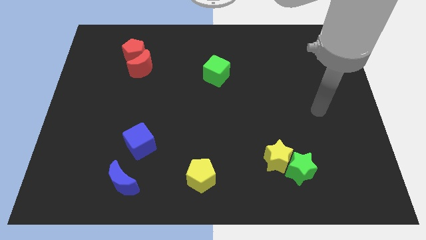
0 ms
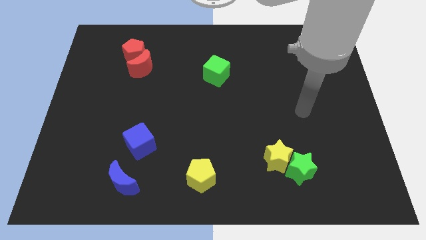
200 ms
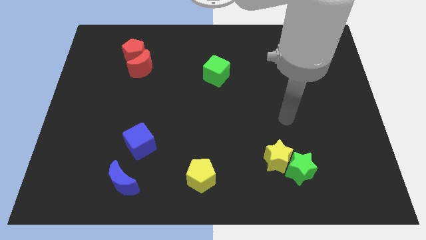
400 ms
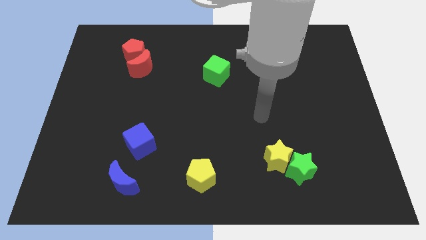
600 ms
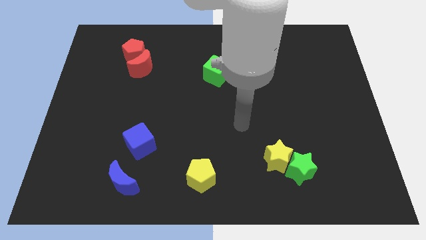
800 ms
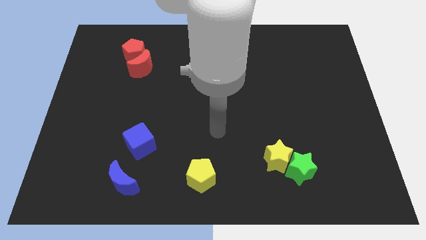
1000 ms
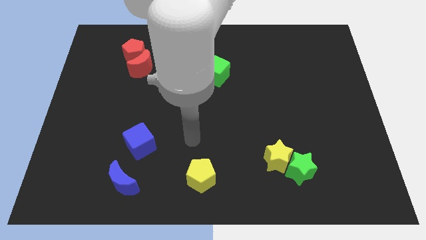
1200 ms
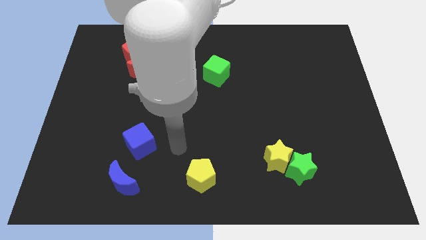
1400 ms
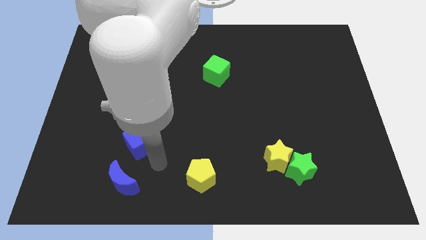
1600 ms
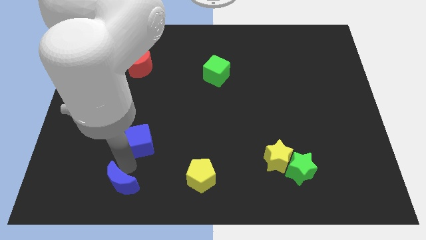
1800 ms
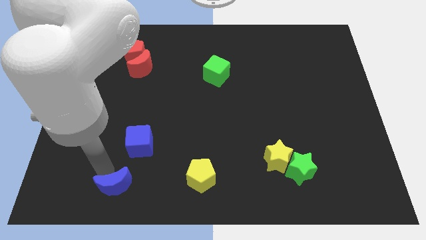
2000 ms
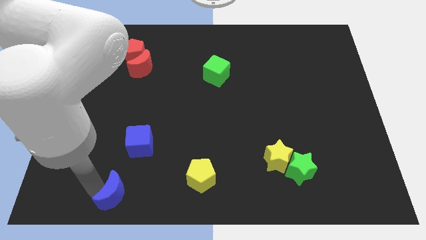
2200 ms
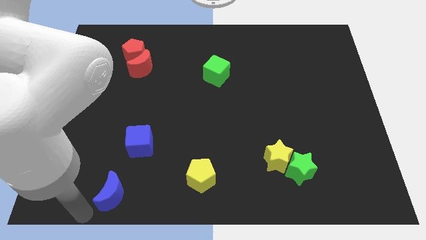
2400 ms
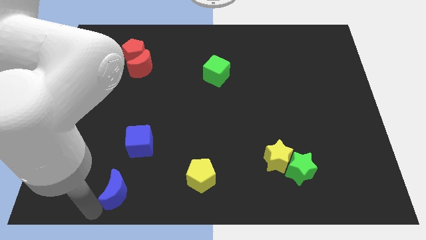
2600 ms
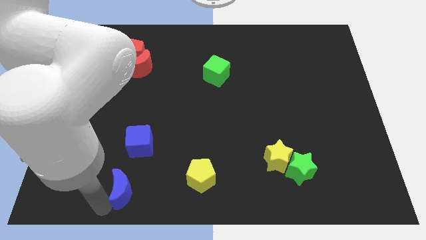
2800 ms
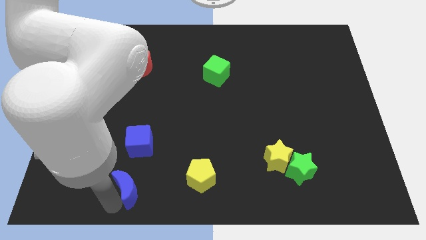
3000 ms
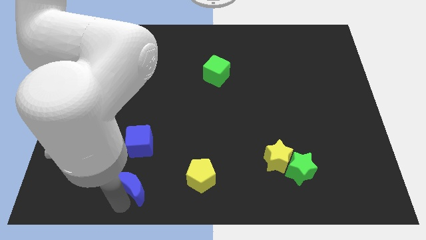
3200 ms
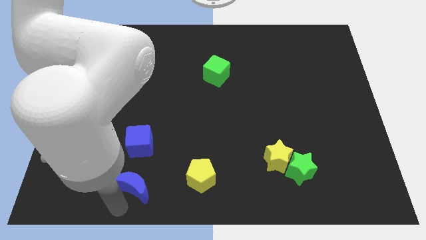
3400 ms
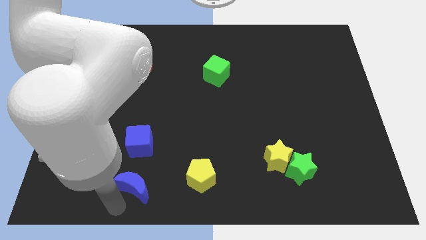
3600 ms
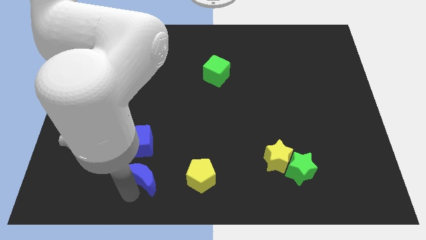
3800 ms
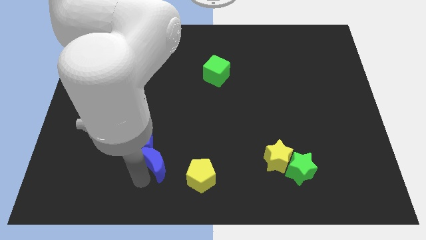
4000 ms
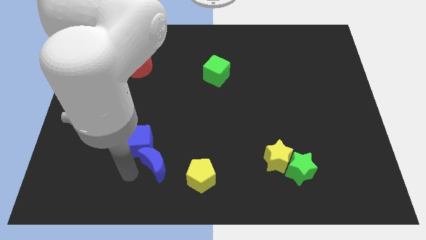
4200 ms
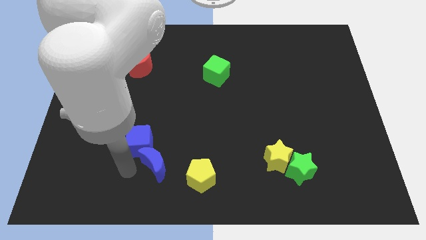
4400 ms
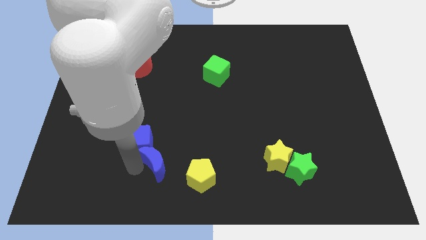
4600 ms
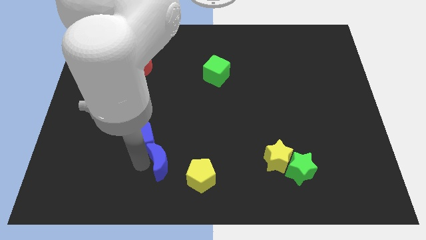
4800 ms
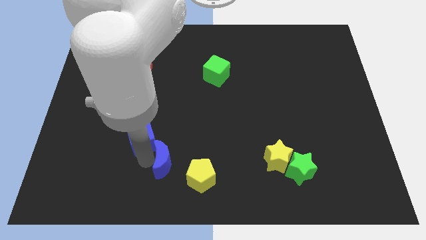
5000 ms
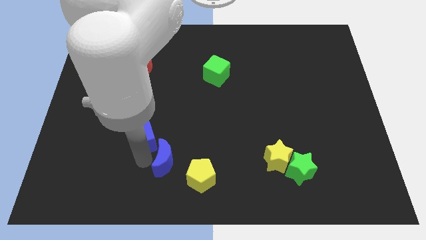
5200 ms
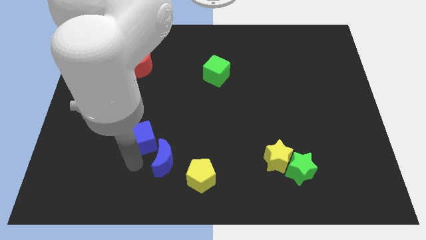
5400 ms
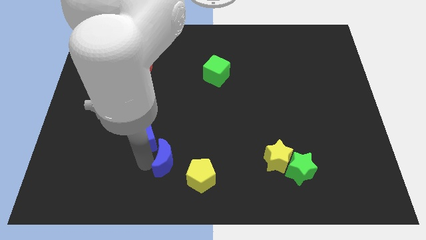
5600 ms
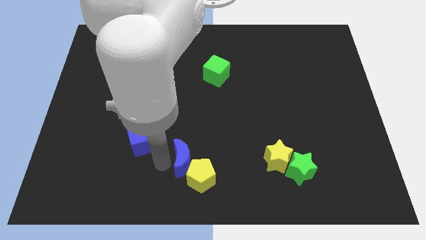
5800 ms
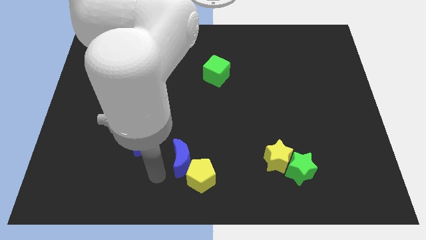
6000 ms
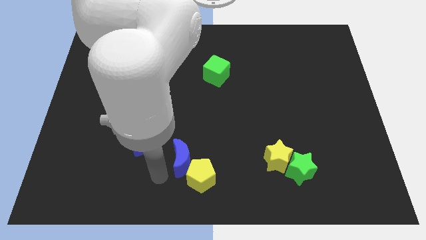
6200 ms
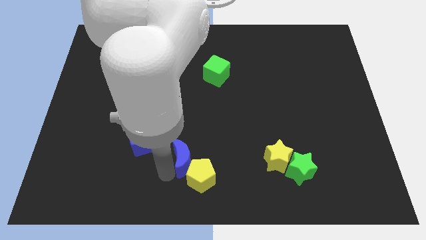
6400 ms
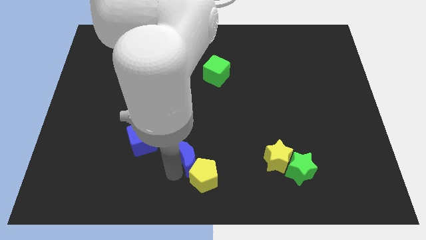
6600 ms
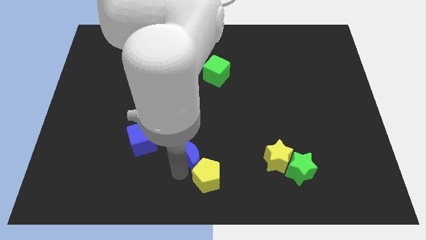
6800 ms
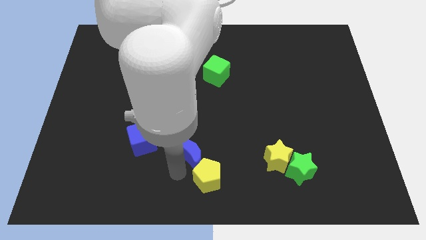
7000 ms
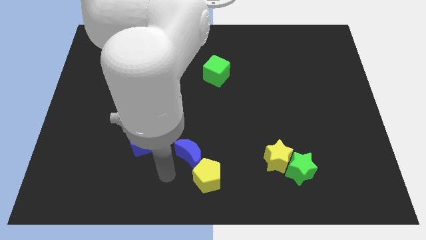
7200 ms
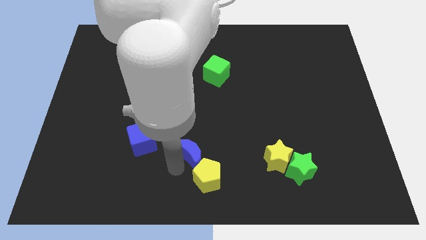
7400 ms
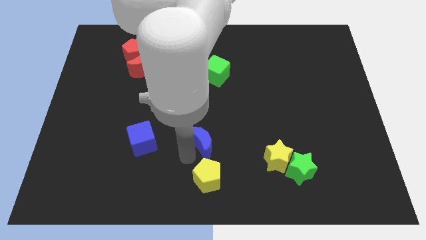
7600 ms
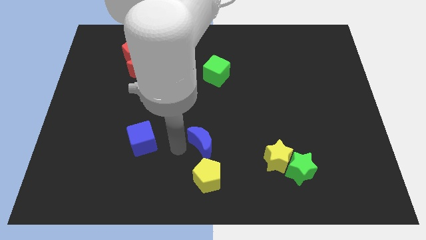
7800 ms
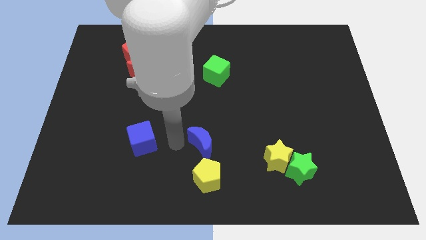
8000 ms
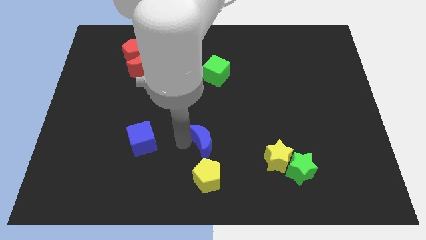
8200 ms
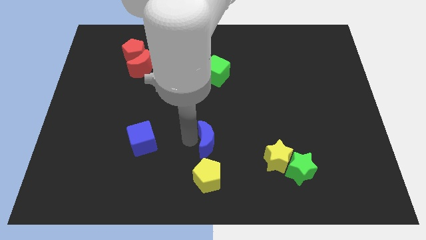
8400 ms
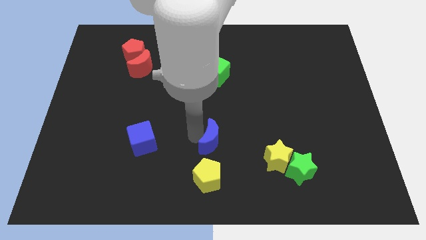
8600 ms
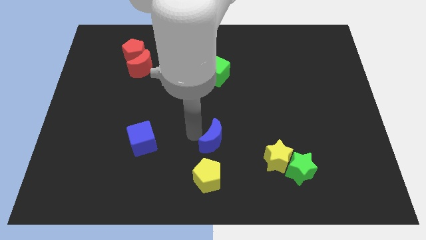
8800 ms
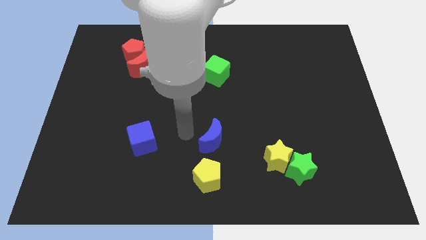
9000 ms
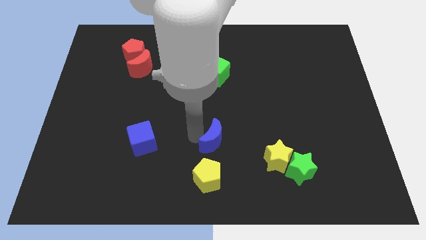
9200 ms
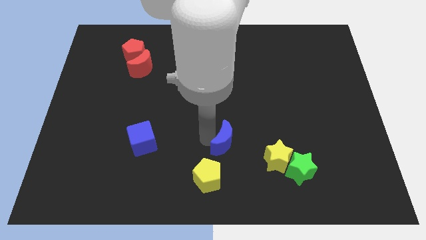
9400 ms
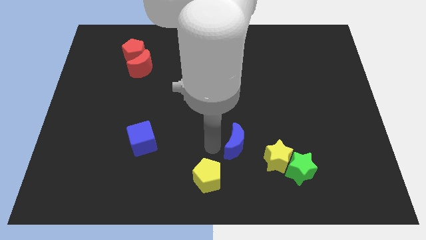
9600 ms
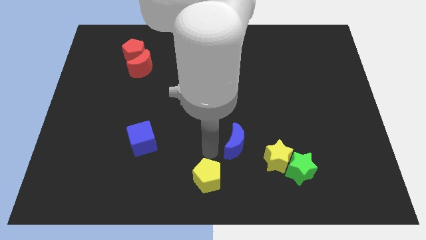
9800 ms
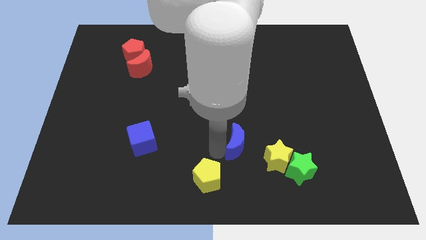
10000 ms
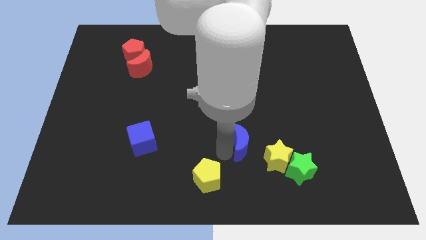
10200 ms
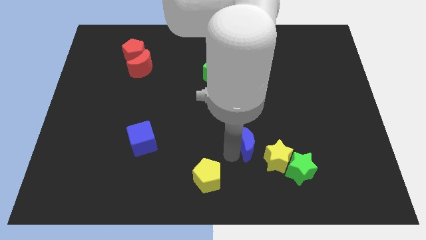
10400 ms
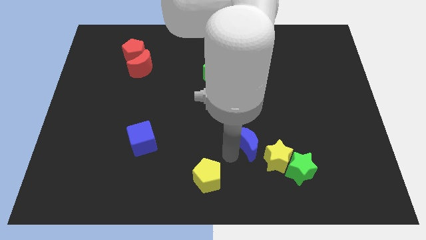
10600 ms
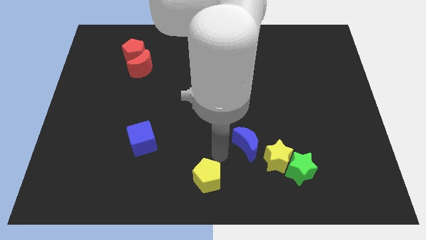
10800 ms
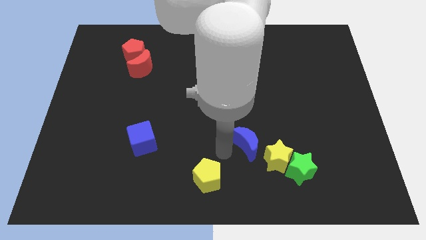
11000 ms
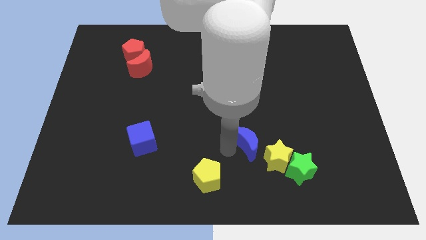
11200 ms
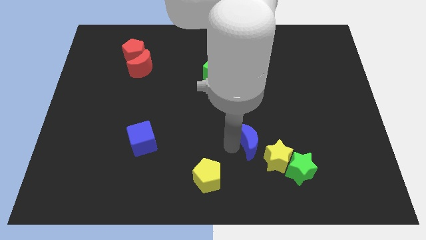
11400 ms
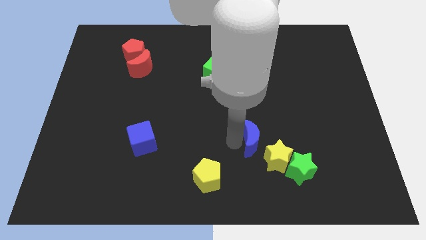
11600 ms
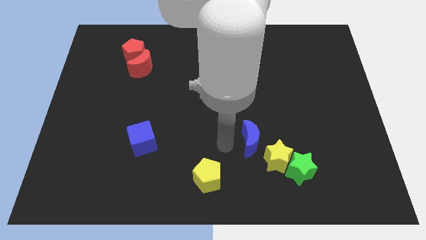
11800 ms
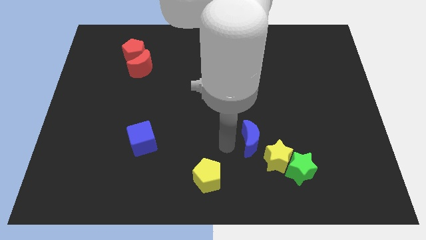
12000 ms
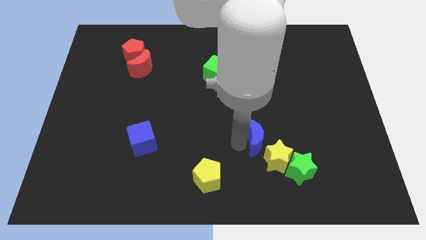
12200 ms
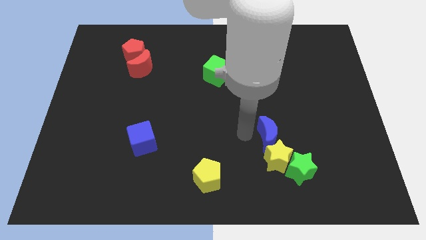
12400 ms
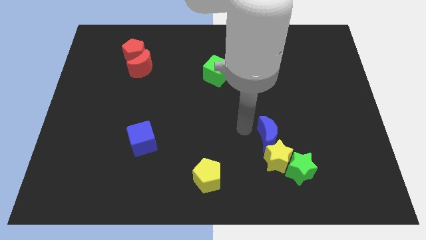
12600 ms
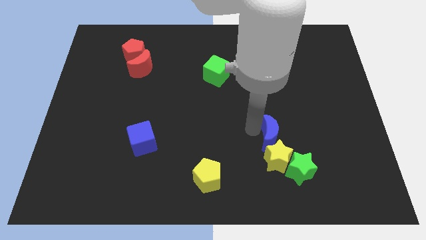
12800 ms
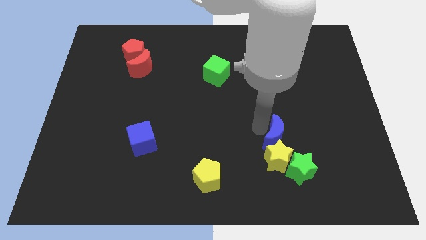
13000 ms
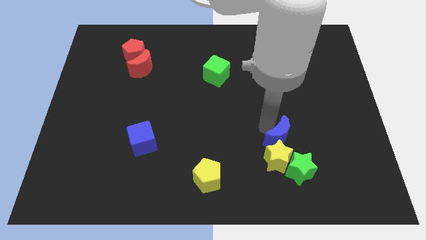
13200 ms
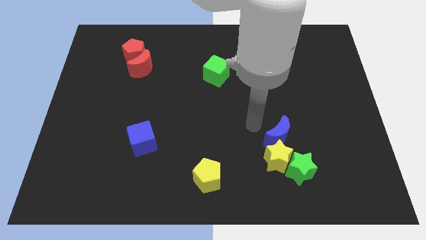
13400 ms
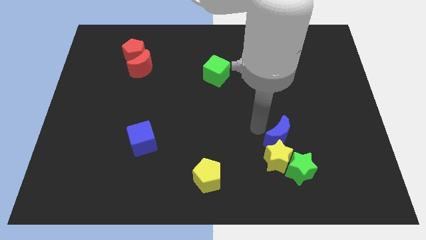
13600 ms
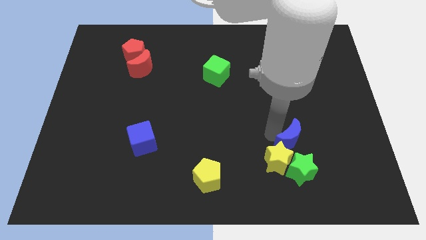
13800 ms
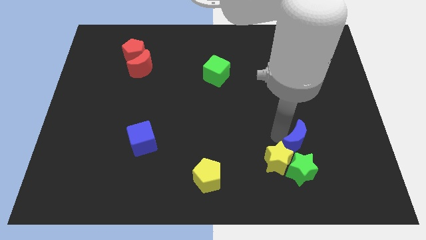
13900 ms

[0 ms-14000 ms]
slide the blue moon to the top right of the green star

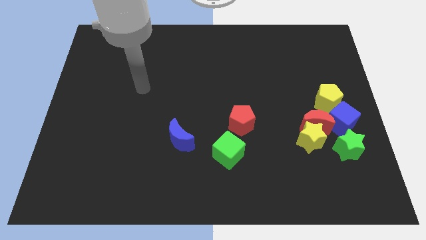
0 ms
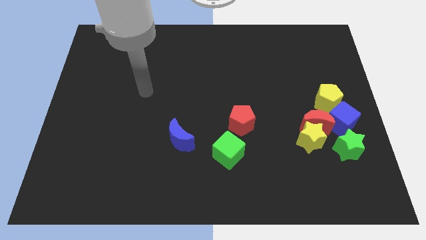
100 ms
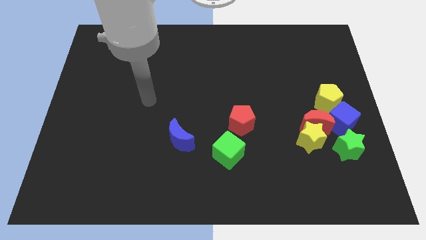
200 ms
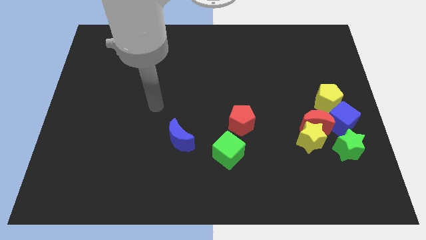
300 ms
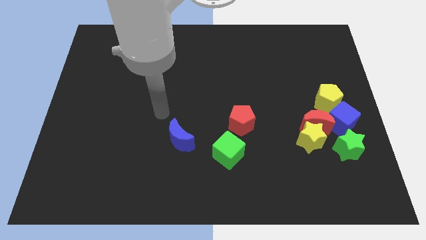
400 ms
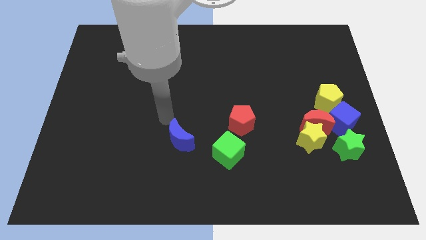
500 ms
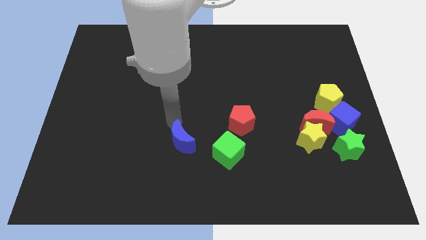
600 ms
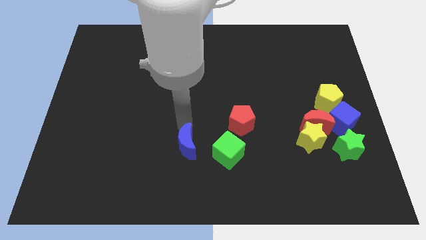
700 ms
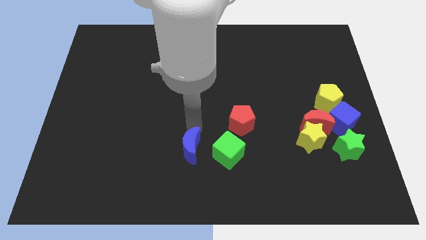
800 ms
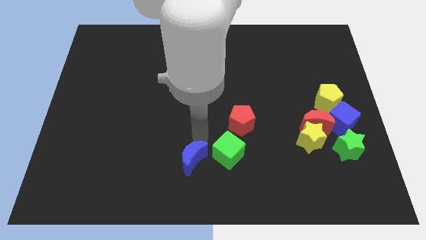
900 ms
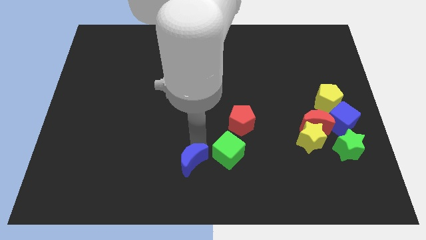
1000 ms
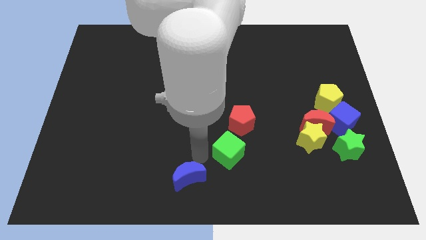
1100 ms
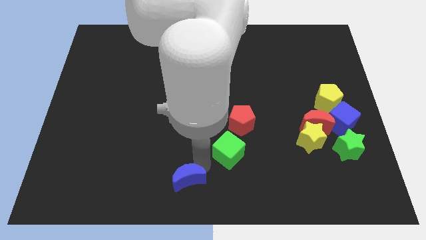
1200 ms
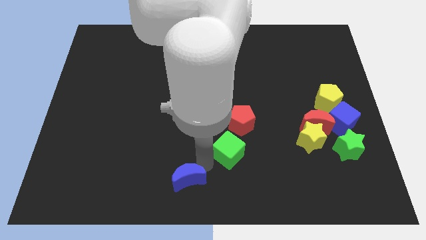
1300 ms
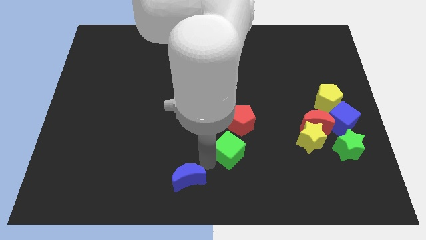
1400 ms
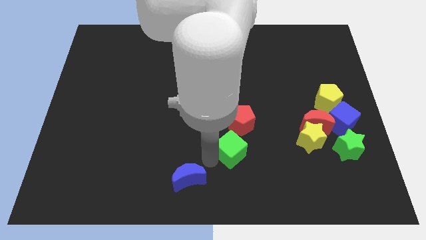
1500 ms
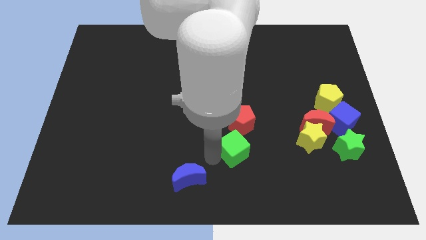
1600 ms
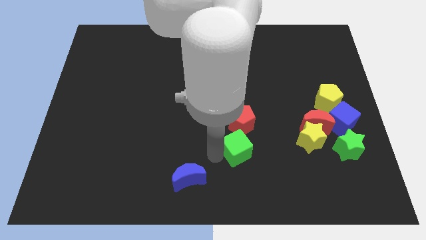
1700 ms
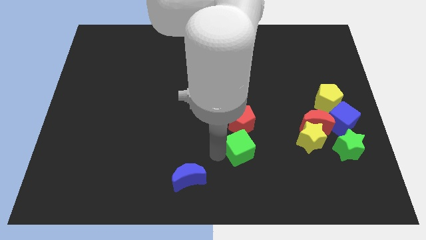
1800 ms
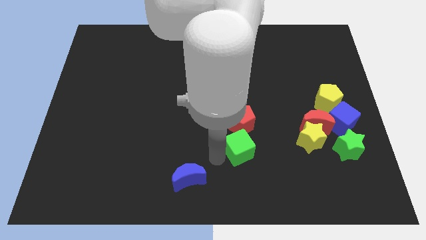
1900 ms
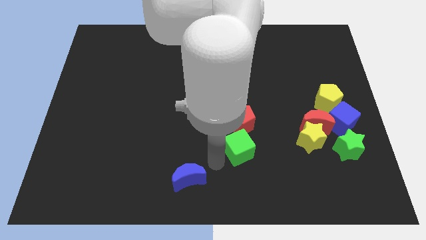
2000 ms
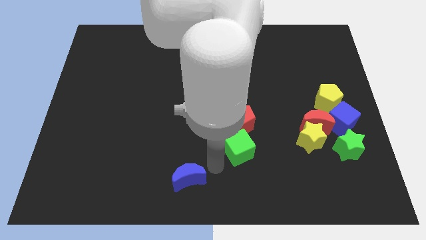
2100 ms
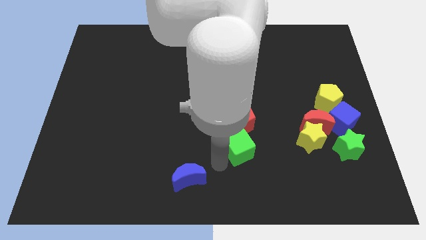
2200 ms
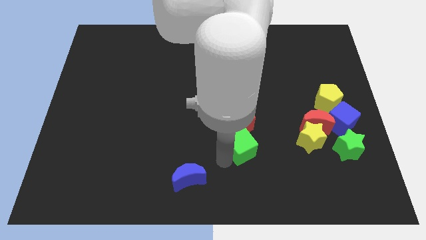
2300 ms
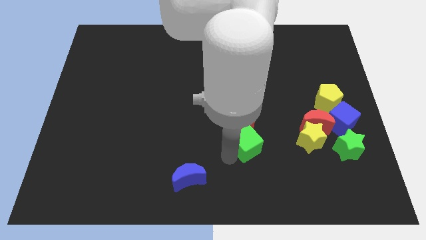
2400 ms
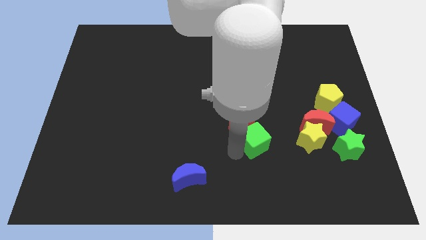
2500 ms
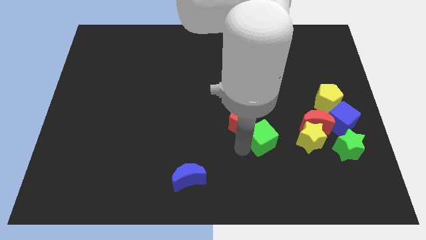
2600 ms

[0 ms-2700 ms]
slide the green cube to the right side of the red pentagon
